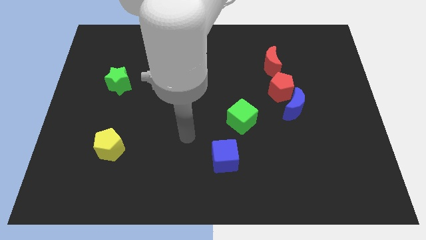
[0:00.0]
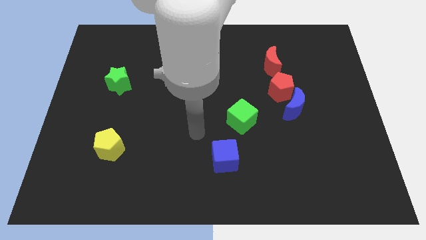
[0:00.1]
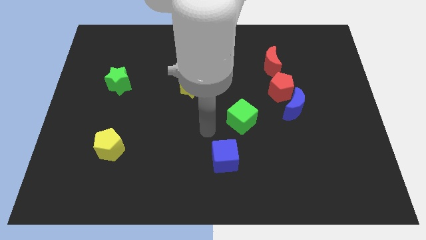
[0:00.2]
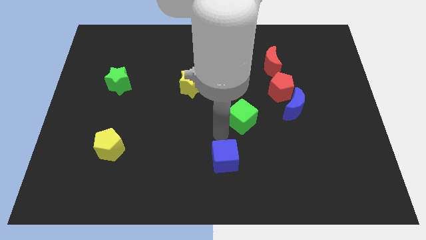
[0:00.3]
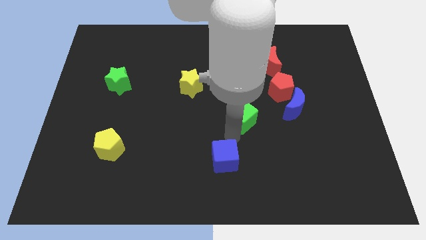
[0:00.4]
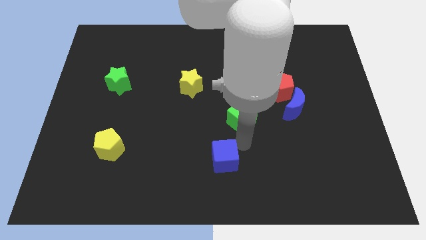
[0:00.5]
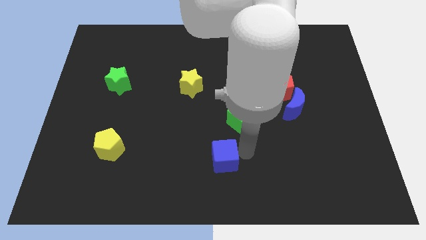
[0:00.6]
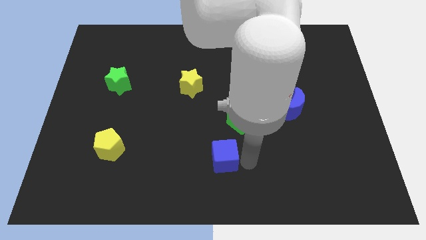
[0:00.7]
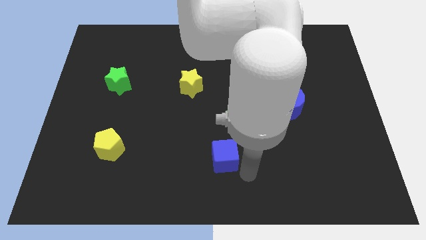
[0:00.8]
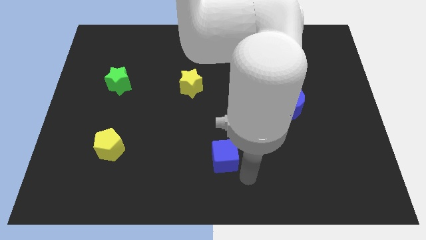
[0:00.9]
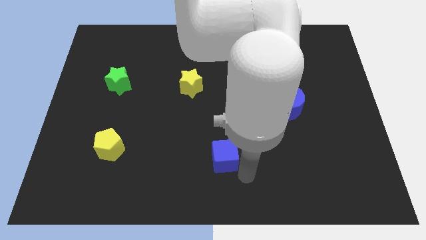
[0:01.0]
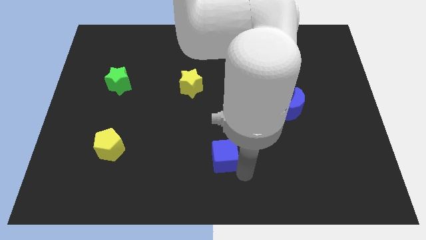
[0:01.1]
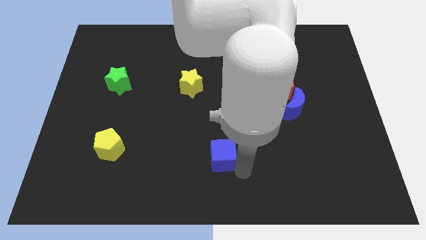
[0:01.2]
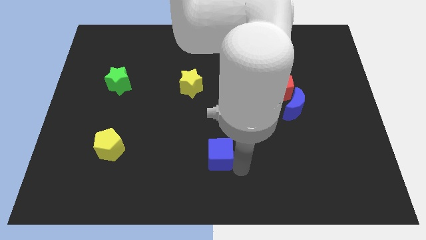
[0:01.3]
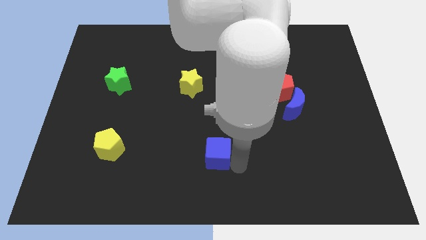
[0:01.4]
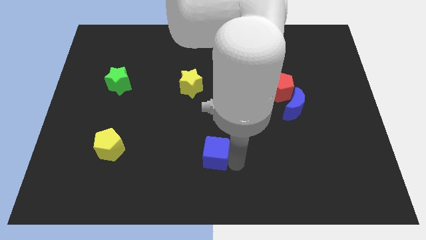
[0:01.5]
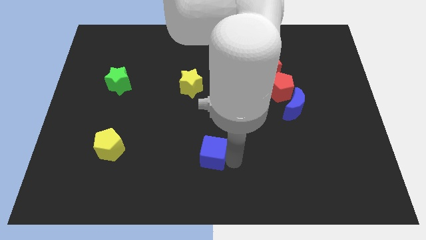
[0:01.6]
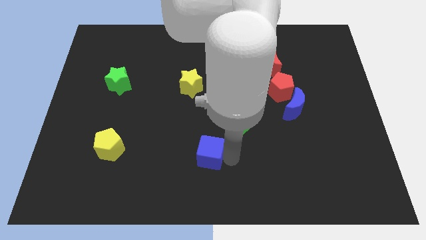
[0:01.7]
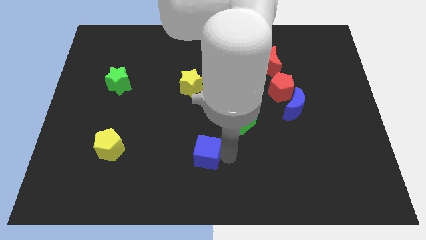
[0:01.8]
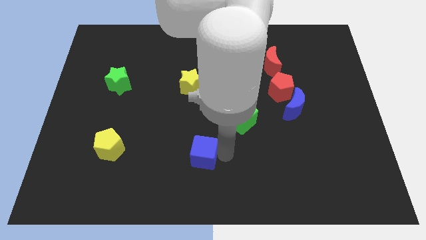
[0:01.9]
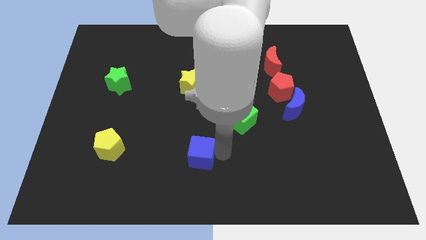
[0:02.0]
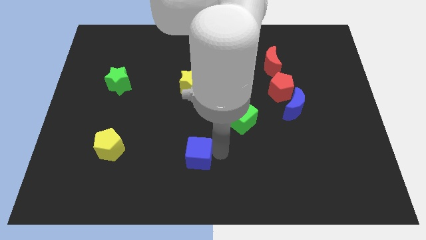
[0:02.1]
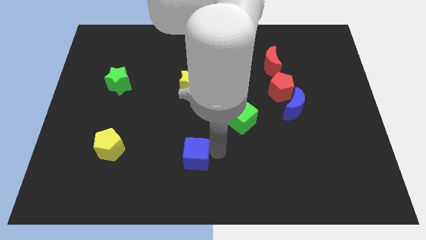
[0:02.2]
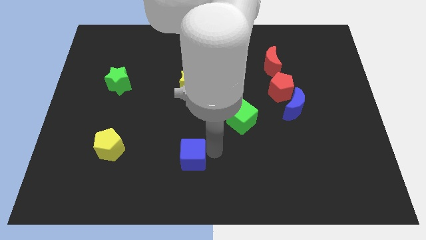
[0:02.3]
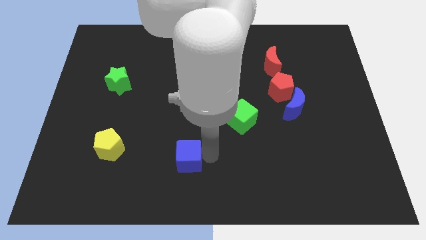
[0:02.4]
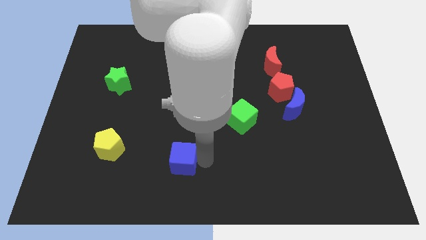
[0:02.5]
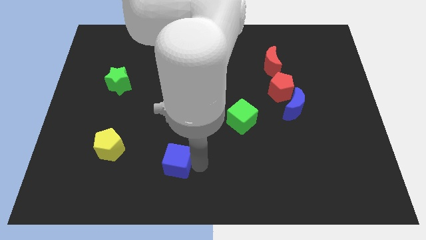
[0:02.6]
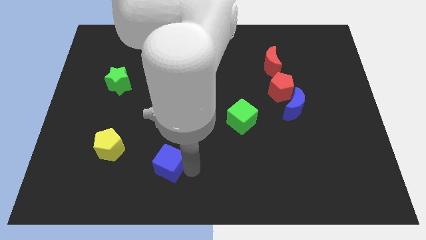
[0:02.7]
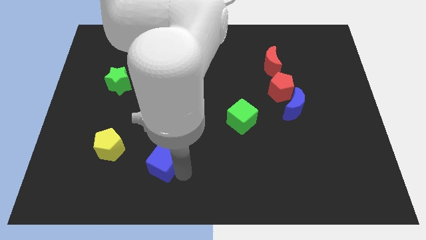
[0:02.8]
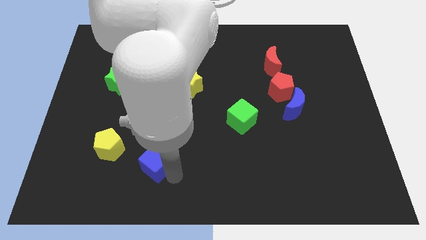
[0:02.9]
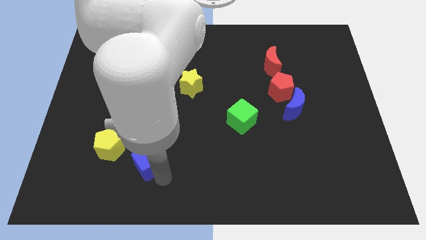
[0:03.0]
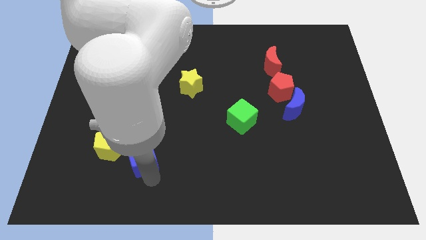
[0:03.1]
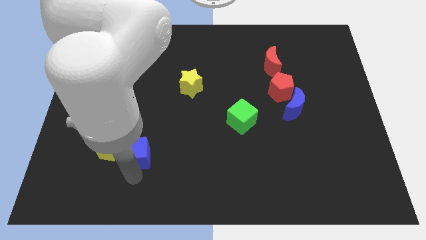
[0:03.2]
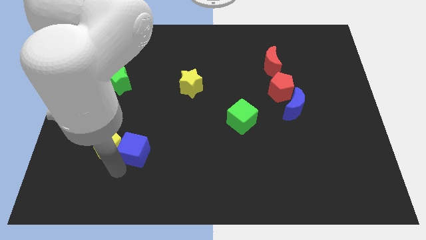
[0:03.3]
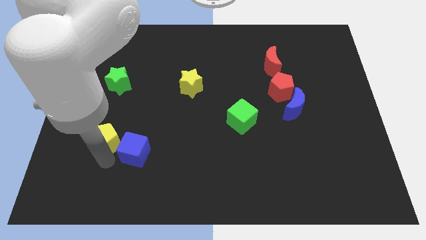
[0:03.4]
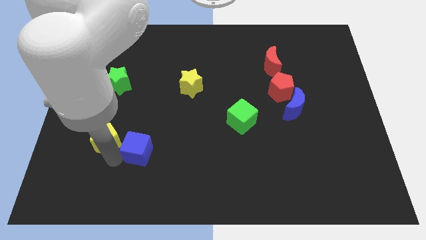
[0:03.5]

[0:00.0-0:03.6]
move the blue cube somewhat upwards and then to the left

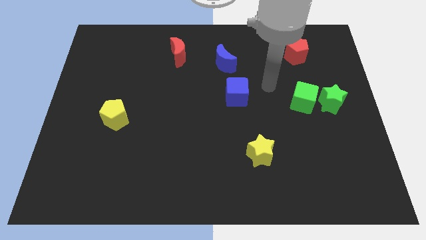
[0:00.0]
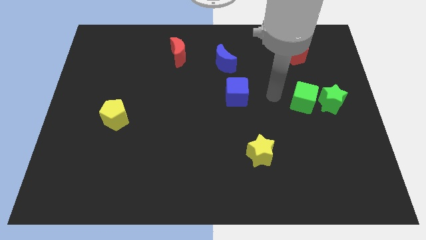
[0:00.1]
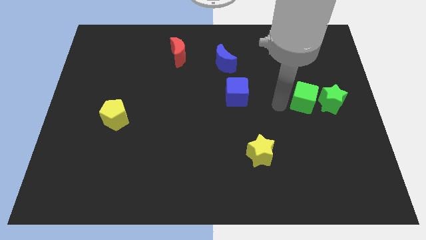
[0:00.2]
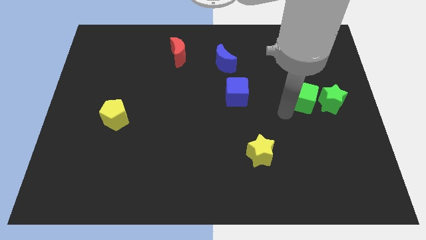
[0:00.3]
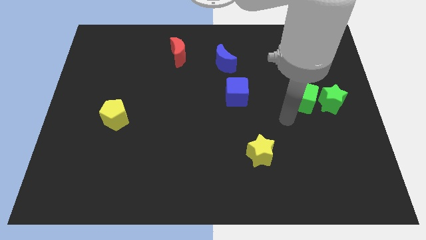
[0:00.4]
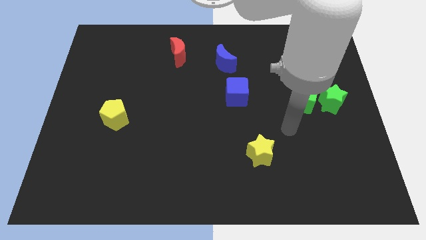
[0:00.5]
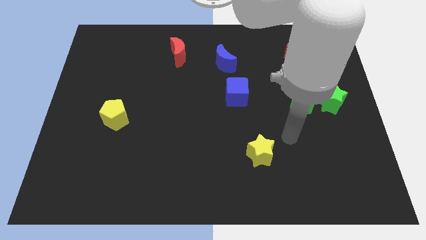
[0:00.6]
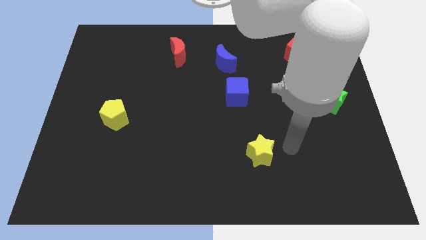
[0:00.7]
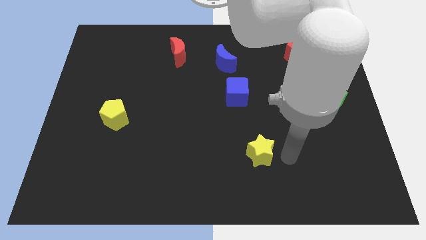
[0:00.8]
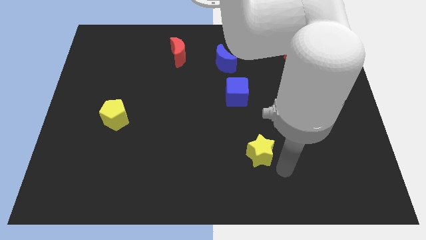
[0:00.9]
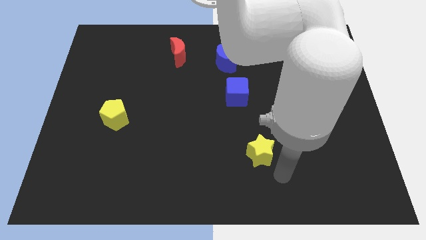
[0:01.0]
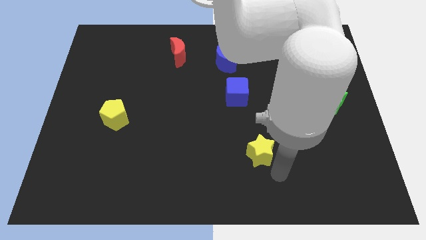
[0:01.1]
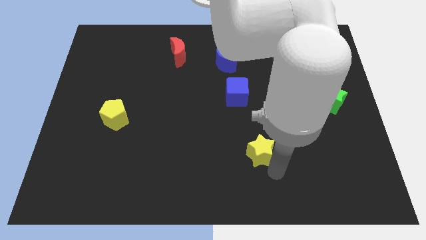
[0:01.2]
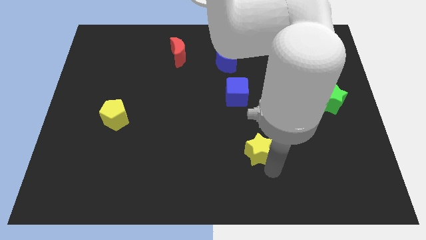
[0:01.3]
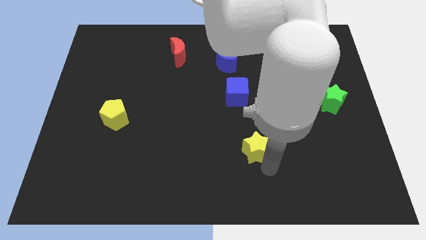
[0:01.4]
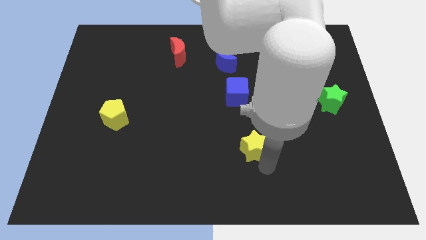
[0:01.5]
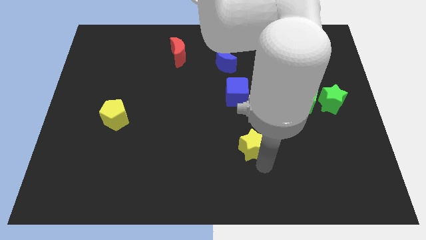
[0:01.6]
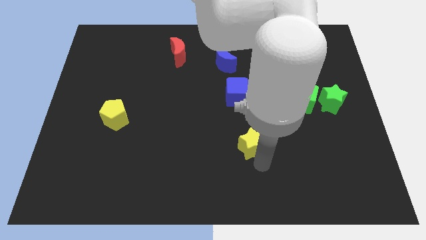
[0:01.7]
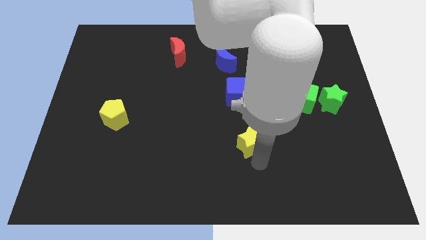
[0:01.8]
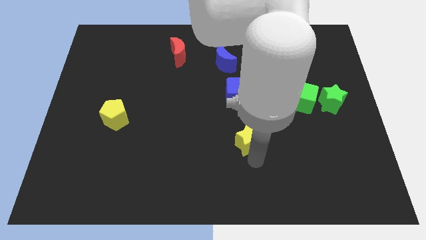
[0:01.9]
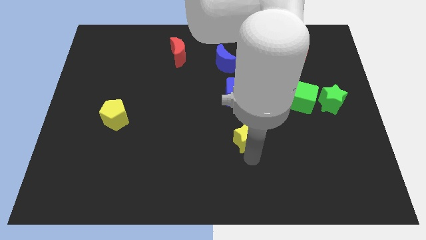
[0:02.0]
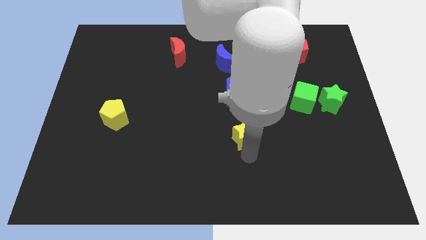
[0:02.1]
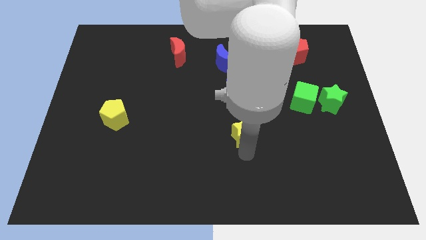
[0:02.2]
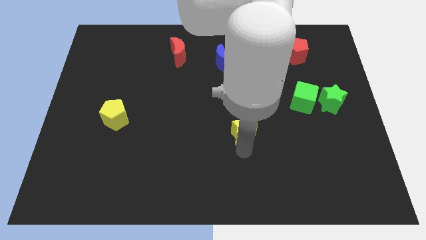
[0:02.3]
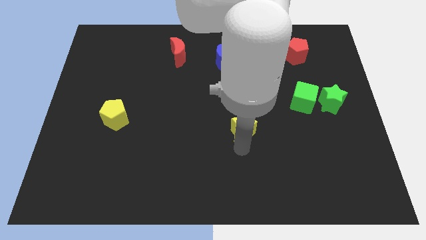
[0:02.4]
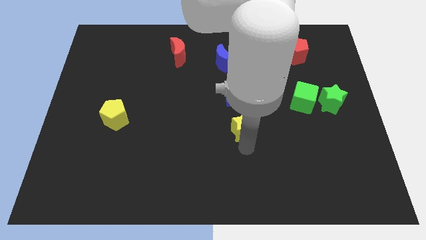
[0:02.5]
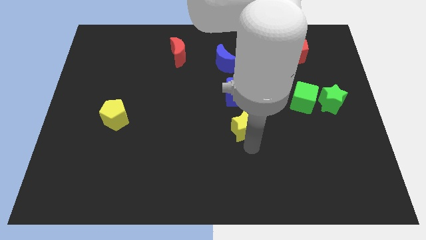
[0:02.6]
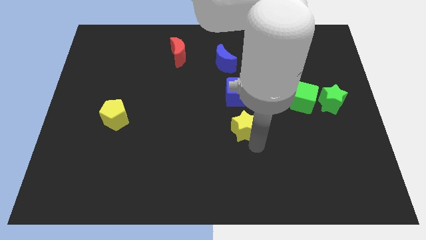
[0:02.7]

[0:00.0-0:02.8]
slightly slide the yellow star upwards and then to the left

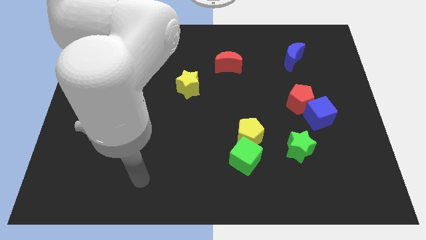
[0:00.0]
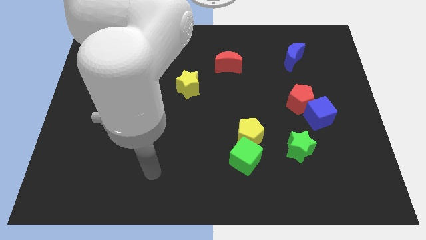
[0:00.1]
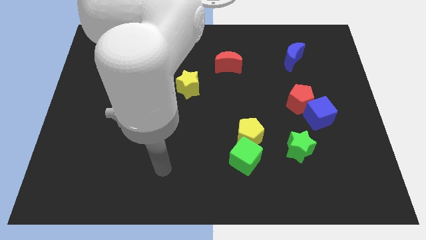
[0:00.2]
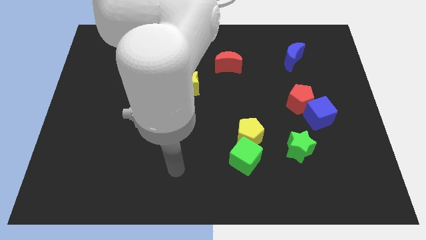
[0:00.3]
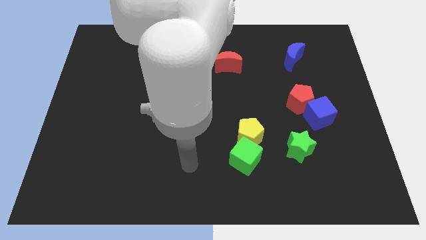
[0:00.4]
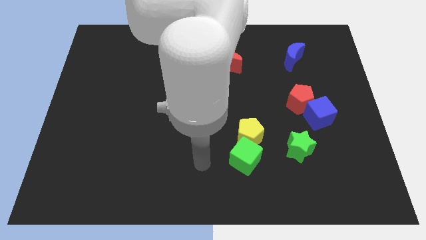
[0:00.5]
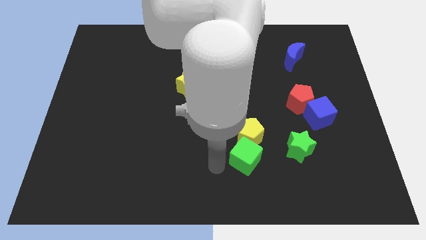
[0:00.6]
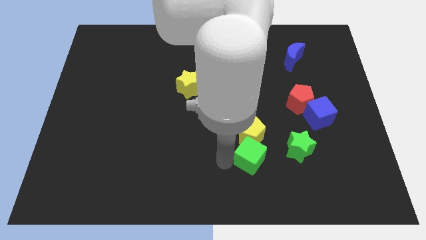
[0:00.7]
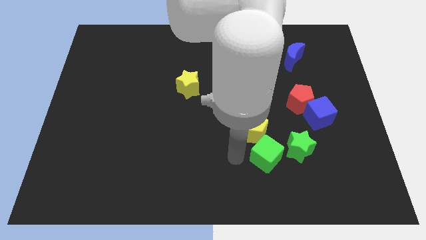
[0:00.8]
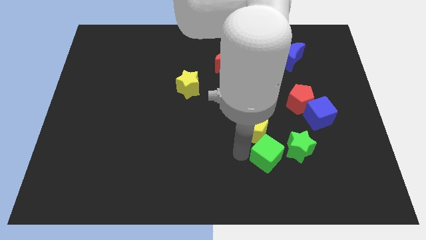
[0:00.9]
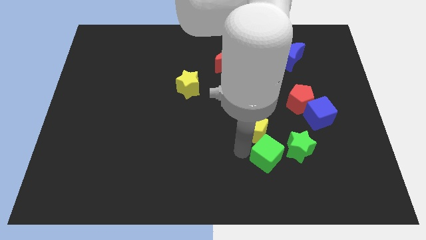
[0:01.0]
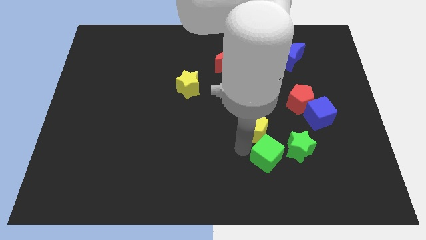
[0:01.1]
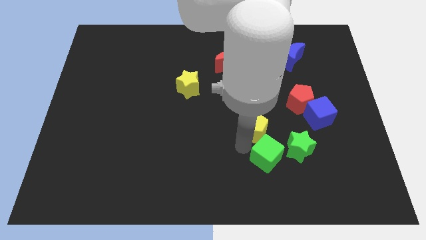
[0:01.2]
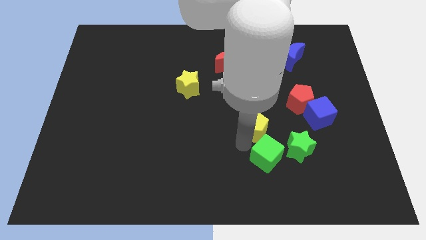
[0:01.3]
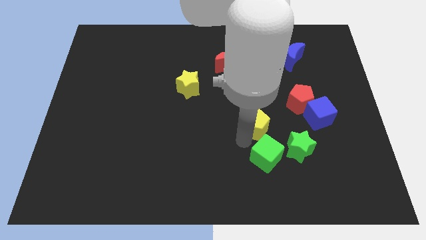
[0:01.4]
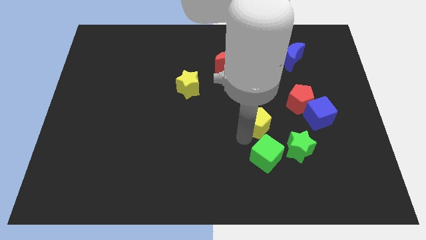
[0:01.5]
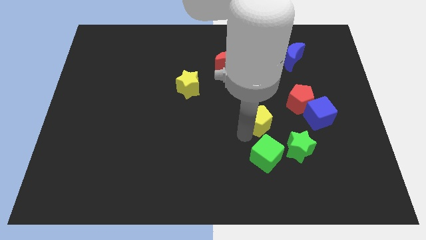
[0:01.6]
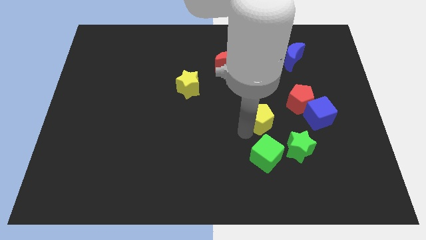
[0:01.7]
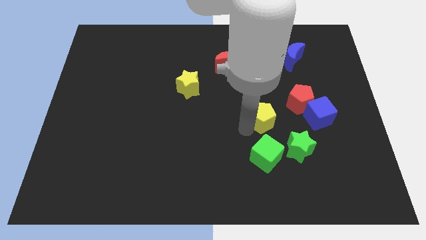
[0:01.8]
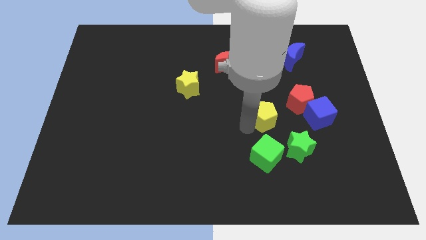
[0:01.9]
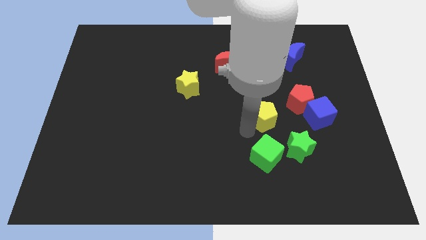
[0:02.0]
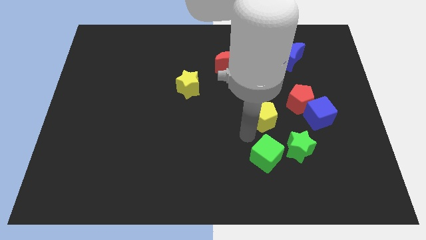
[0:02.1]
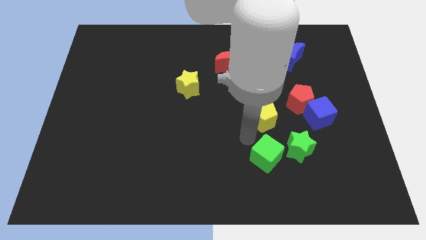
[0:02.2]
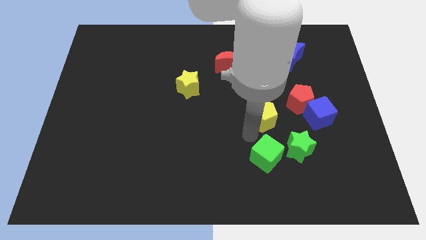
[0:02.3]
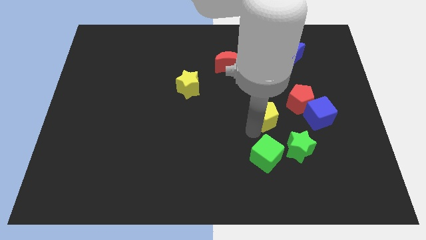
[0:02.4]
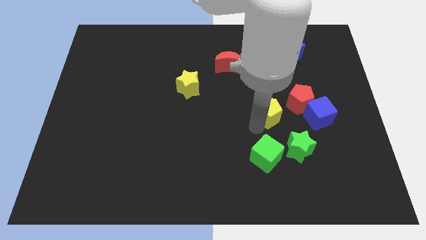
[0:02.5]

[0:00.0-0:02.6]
move the yellow pentagon somewhat up and then to the right
